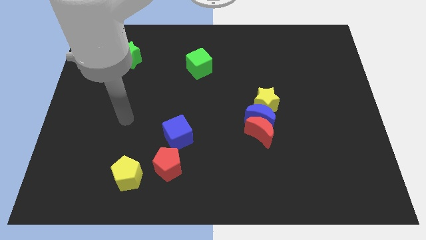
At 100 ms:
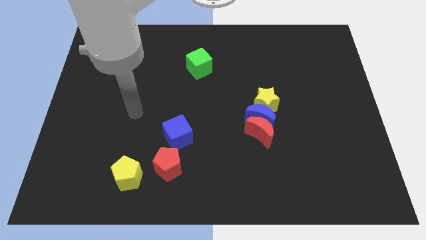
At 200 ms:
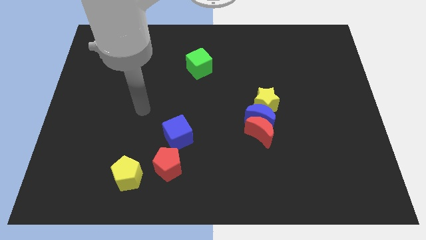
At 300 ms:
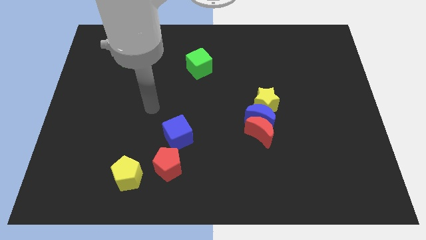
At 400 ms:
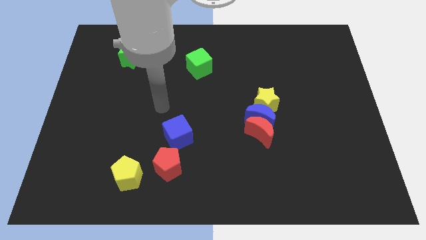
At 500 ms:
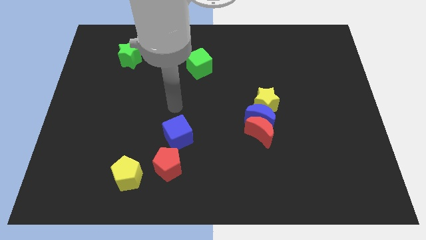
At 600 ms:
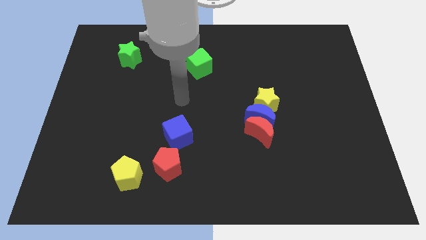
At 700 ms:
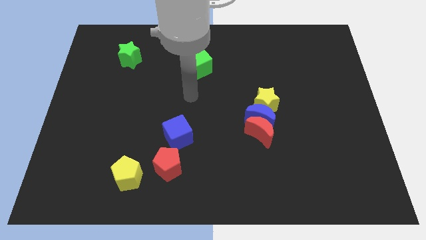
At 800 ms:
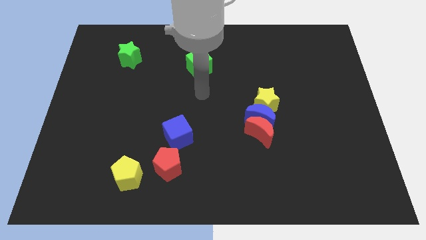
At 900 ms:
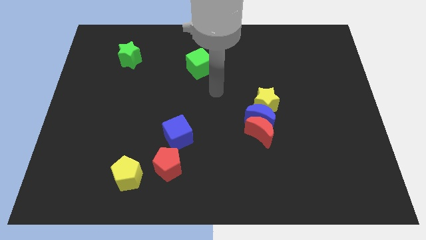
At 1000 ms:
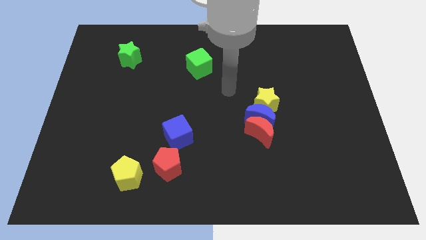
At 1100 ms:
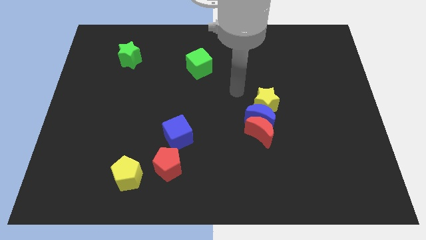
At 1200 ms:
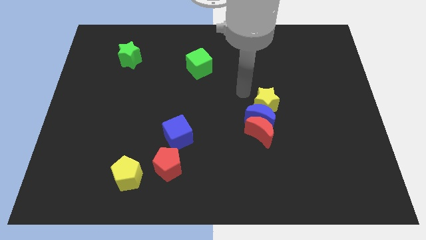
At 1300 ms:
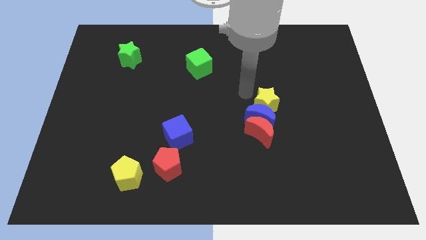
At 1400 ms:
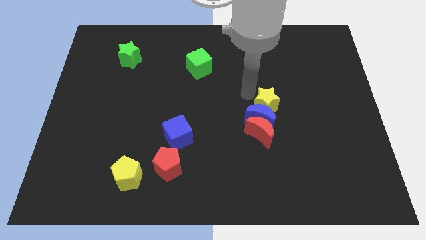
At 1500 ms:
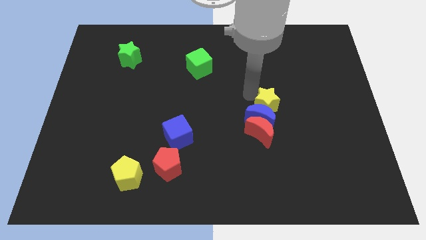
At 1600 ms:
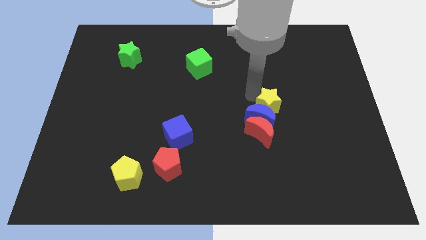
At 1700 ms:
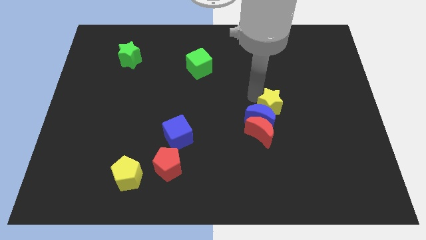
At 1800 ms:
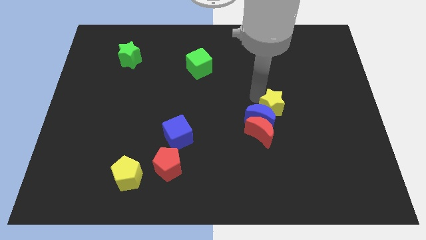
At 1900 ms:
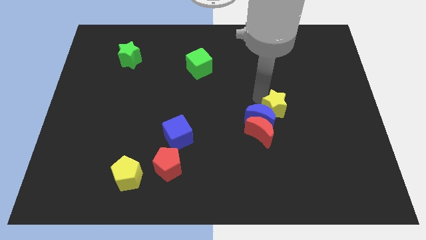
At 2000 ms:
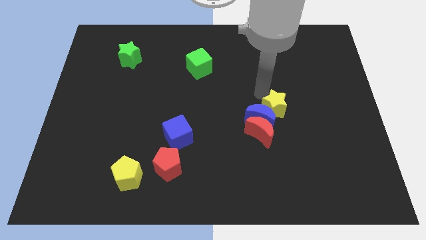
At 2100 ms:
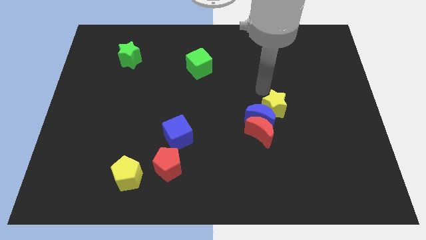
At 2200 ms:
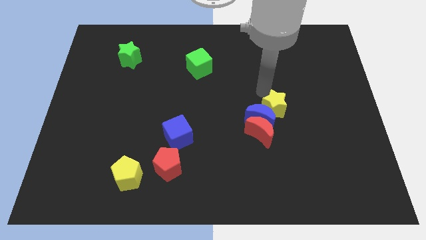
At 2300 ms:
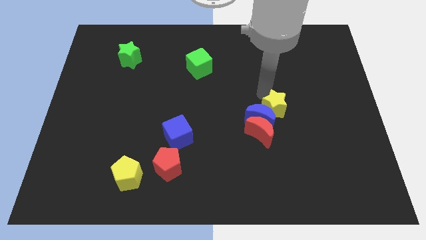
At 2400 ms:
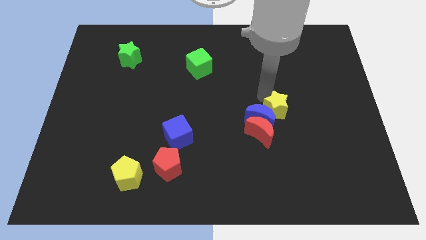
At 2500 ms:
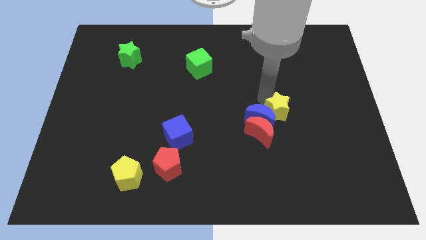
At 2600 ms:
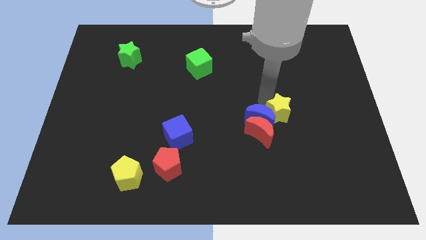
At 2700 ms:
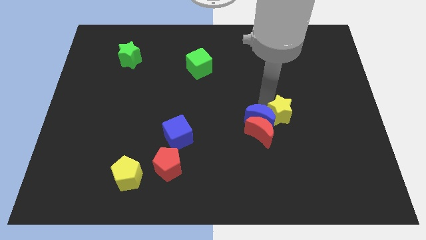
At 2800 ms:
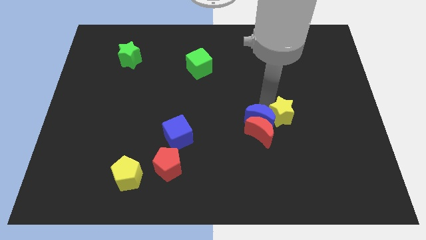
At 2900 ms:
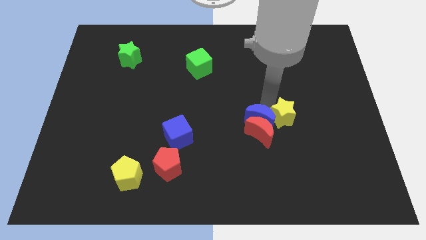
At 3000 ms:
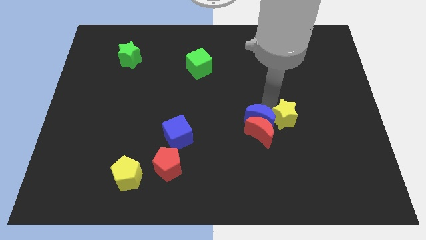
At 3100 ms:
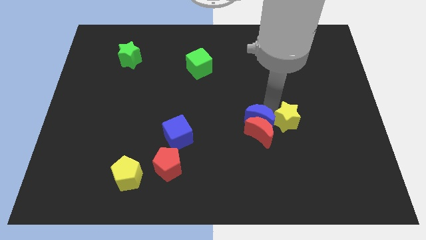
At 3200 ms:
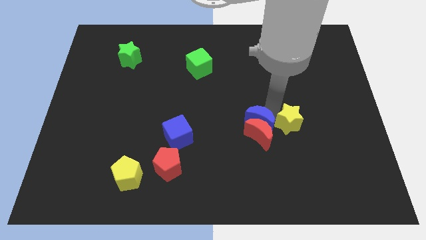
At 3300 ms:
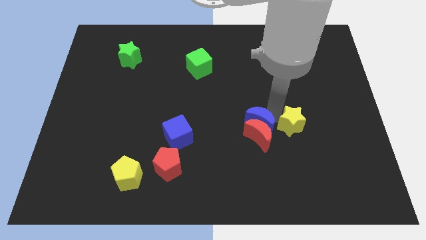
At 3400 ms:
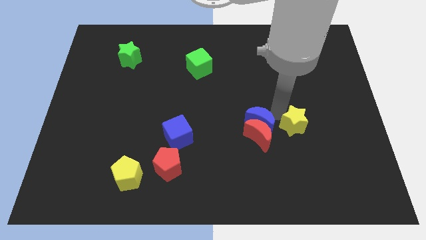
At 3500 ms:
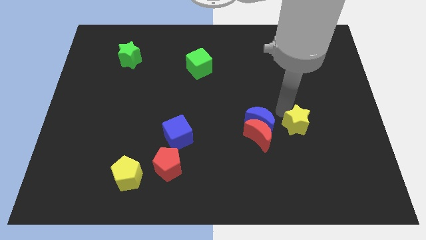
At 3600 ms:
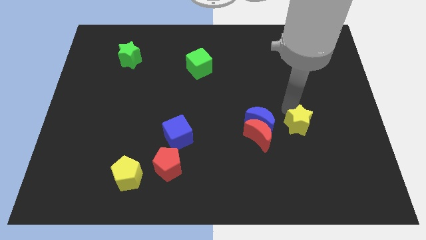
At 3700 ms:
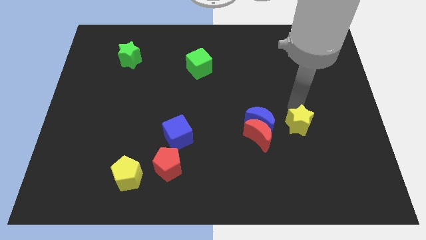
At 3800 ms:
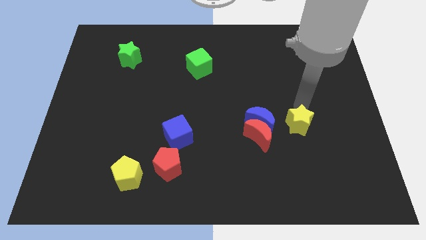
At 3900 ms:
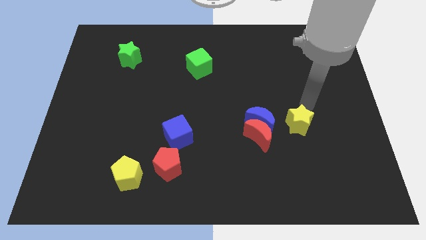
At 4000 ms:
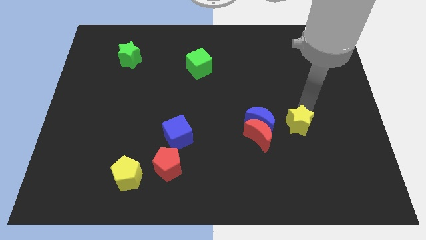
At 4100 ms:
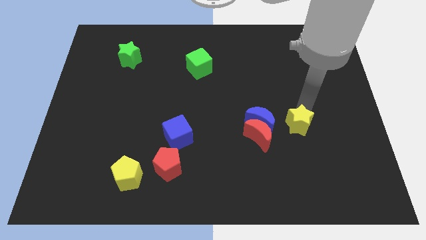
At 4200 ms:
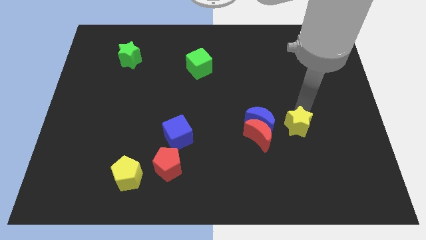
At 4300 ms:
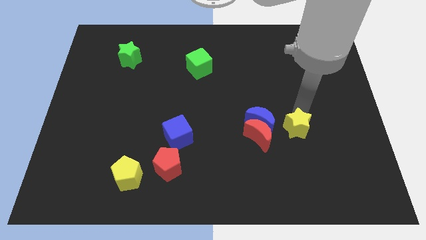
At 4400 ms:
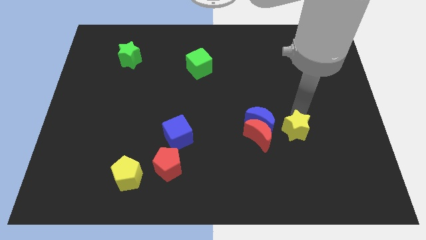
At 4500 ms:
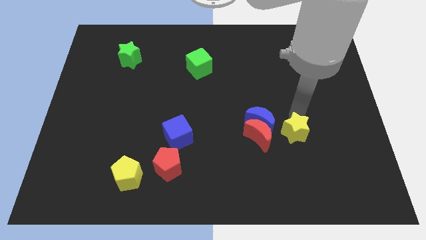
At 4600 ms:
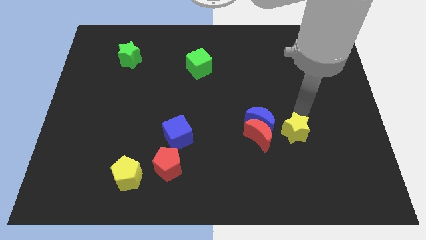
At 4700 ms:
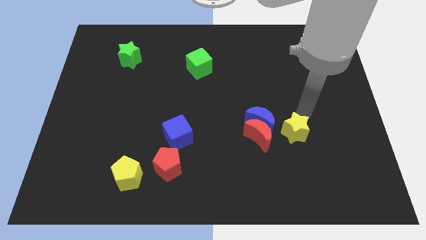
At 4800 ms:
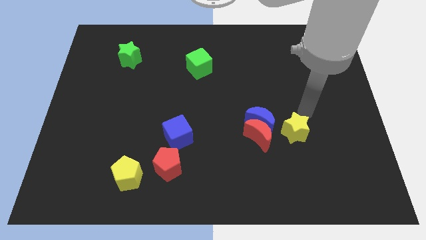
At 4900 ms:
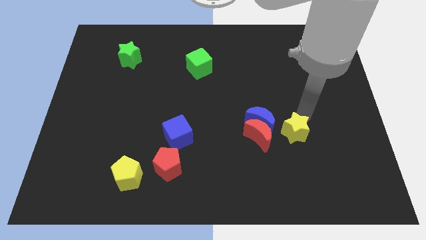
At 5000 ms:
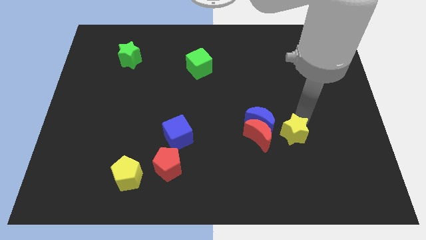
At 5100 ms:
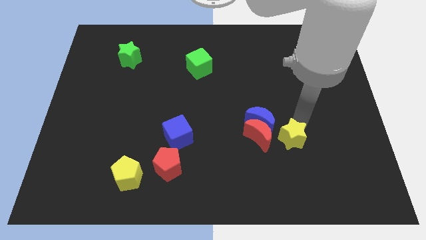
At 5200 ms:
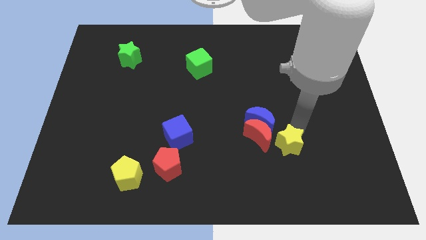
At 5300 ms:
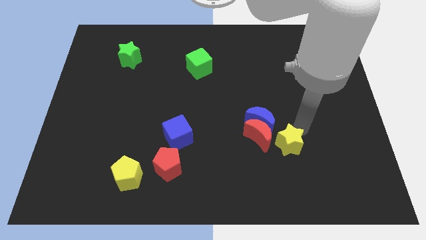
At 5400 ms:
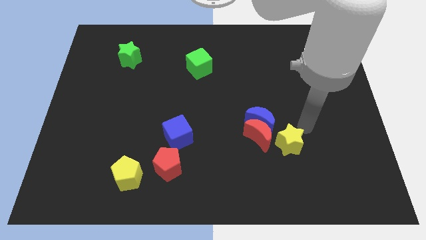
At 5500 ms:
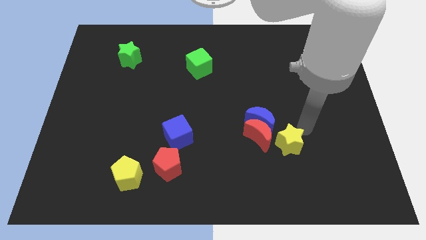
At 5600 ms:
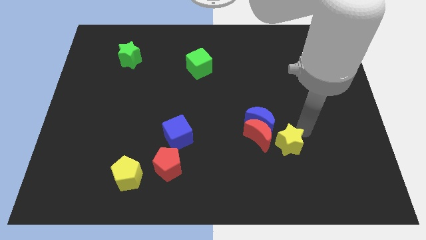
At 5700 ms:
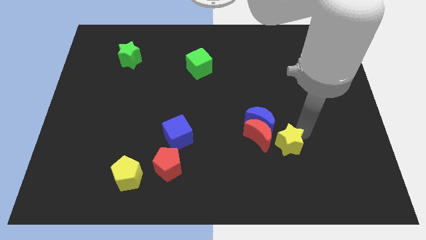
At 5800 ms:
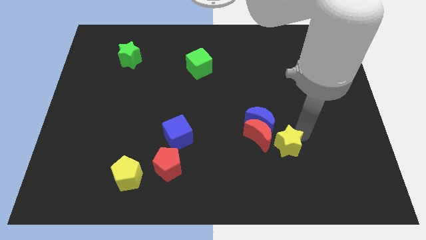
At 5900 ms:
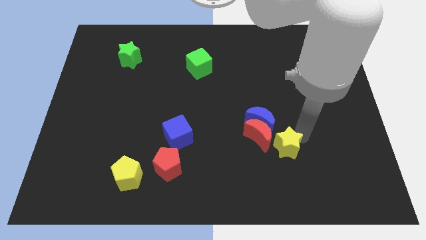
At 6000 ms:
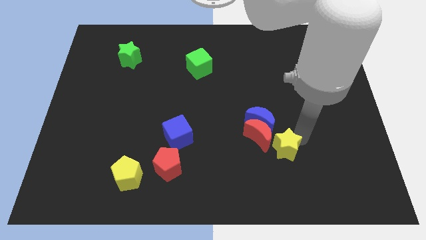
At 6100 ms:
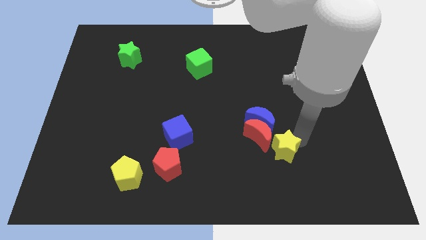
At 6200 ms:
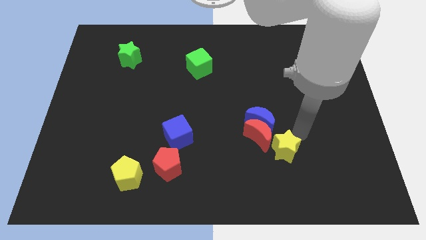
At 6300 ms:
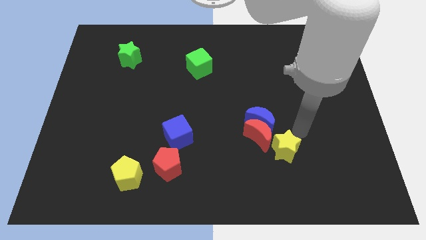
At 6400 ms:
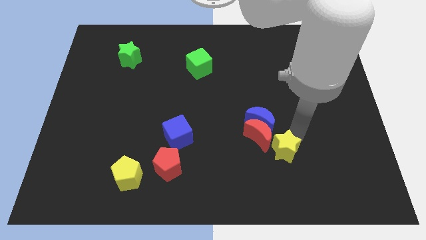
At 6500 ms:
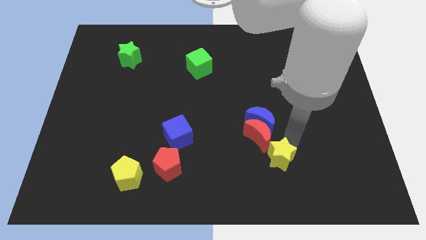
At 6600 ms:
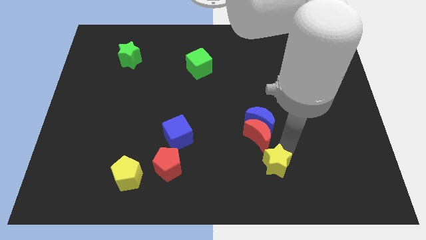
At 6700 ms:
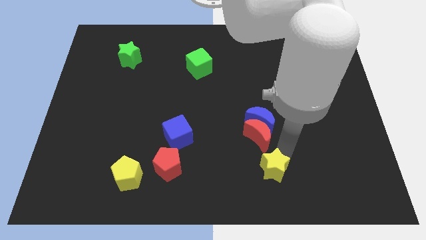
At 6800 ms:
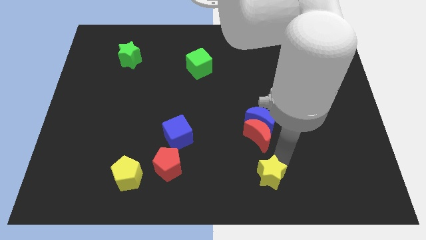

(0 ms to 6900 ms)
put the yellow star to the bottom side

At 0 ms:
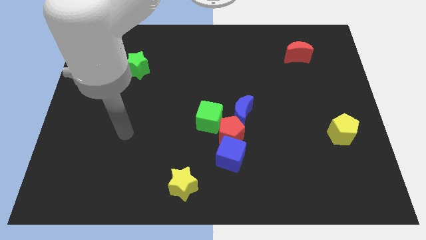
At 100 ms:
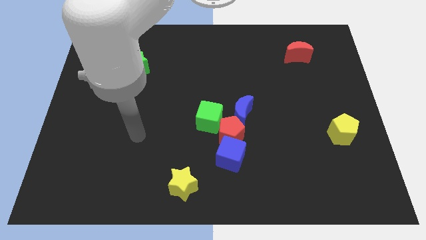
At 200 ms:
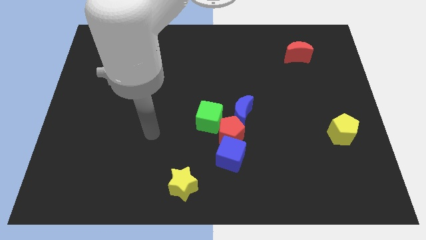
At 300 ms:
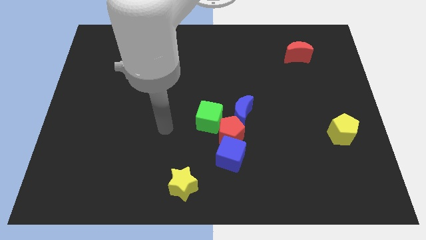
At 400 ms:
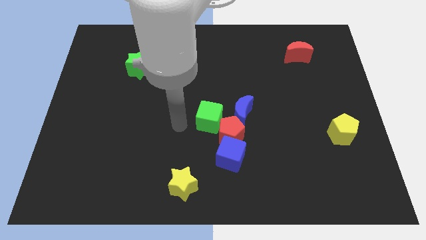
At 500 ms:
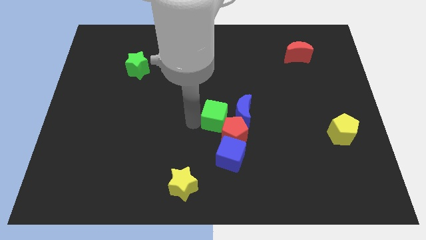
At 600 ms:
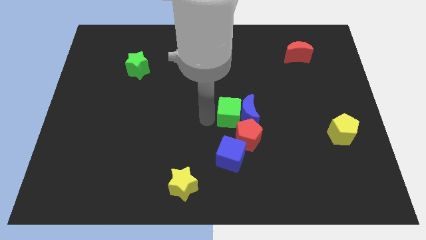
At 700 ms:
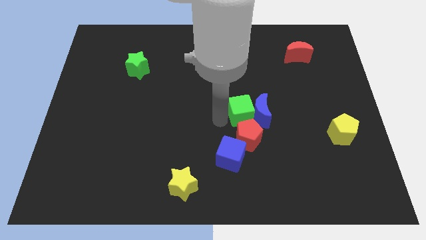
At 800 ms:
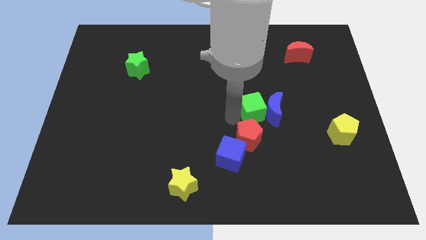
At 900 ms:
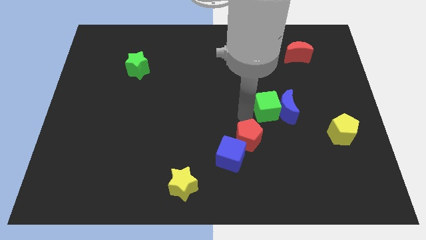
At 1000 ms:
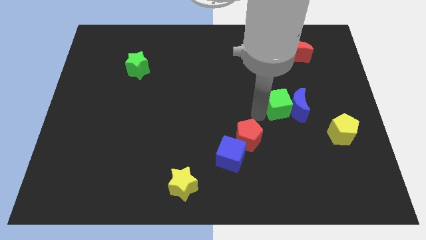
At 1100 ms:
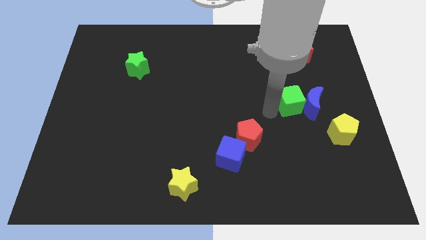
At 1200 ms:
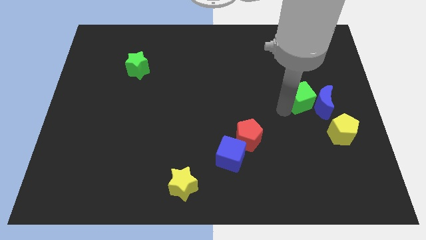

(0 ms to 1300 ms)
push the blue moon to the center right
